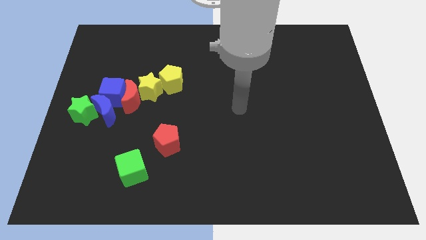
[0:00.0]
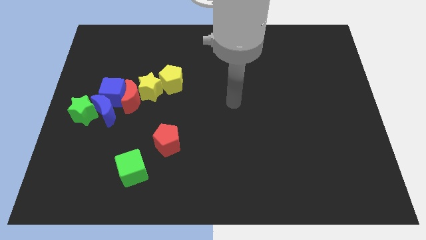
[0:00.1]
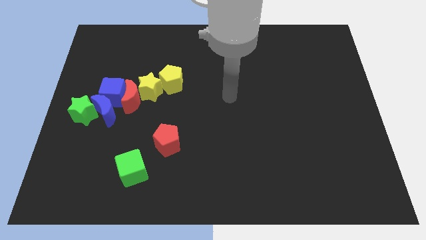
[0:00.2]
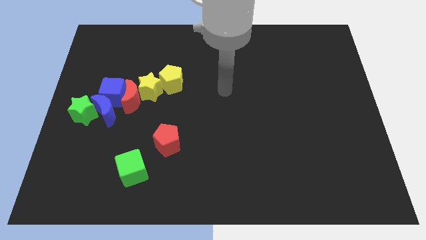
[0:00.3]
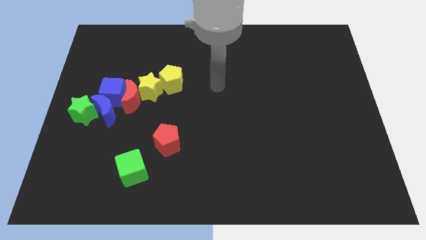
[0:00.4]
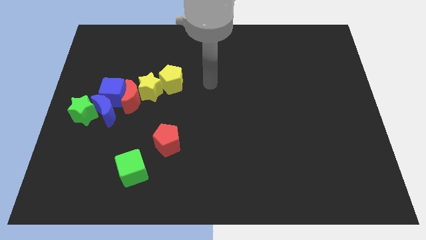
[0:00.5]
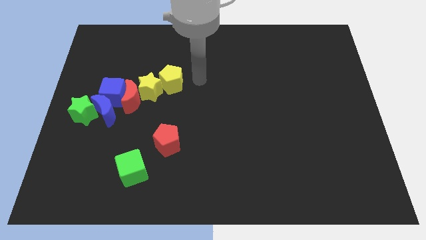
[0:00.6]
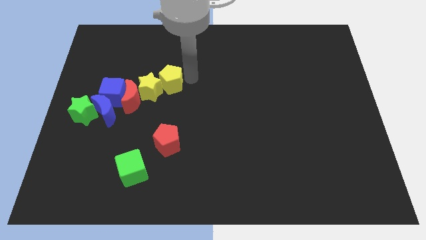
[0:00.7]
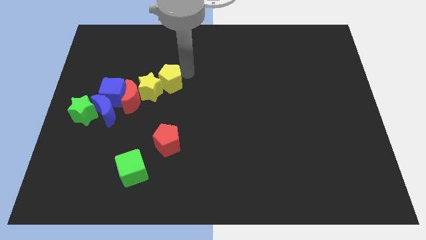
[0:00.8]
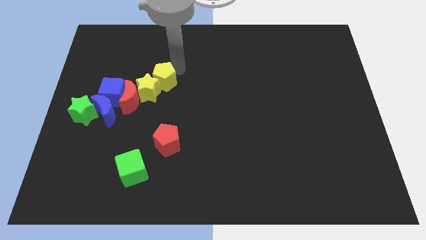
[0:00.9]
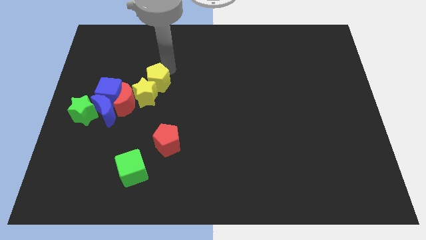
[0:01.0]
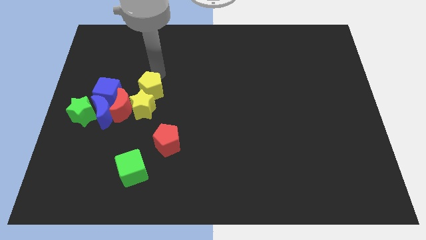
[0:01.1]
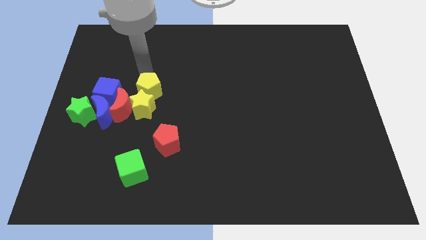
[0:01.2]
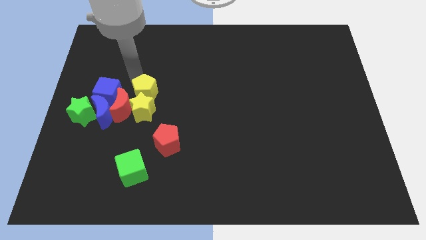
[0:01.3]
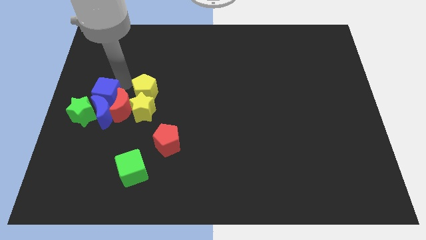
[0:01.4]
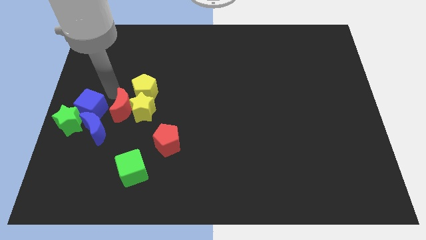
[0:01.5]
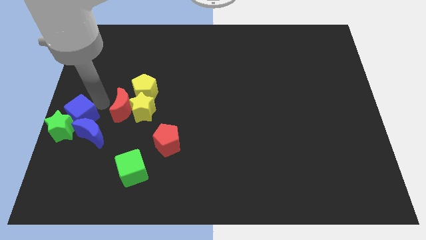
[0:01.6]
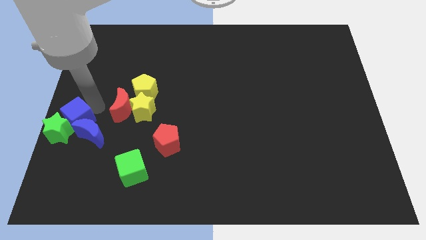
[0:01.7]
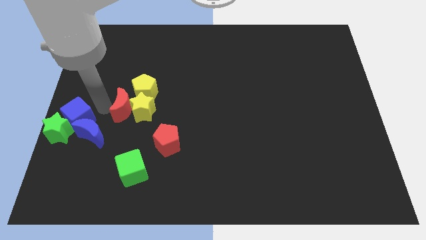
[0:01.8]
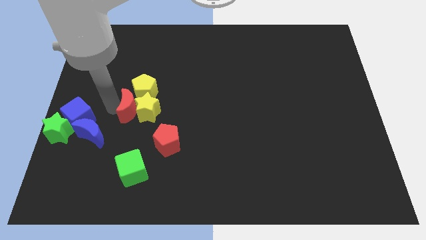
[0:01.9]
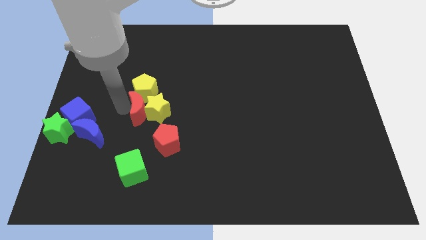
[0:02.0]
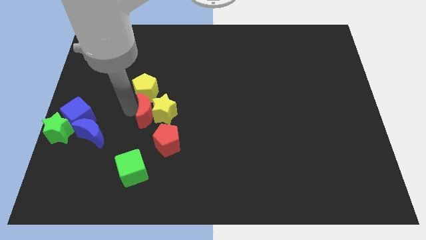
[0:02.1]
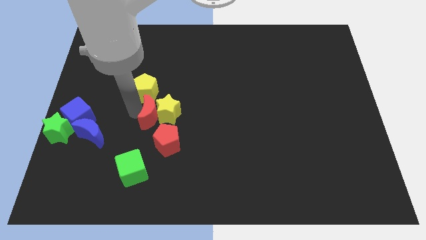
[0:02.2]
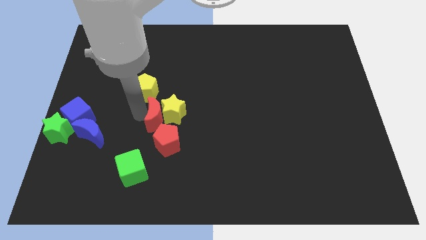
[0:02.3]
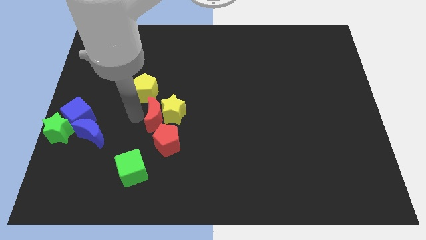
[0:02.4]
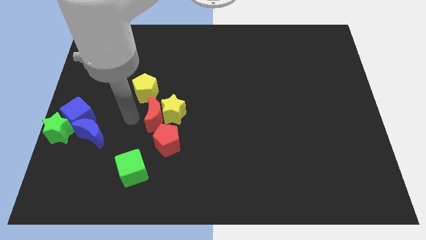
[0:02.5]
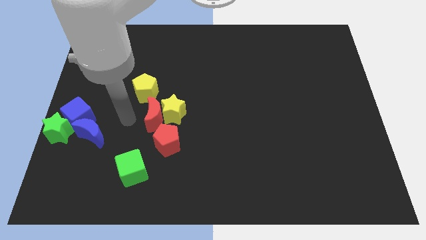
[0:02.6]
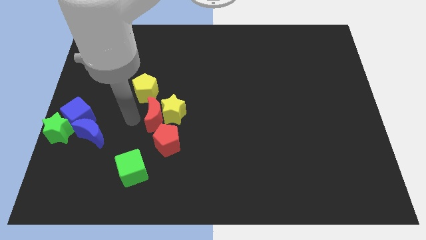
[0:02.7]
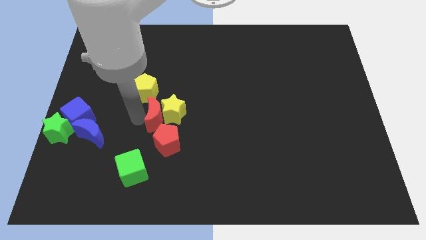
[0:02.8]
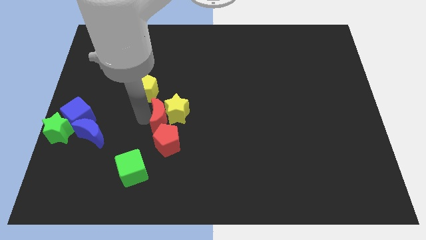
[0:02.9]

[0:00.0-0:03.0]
separate the red moon from the yellow star, blue cube, and blue moon

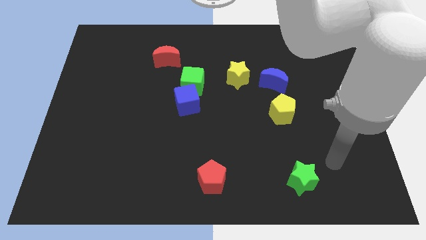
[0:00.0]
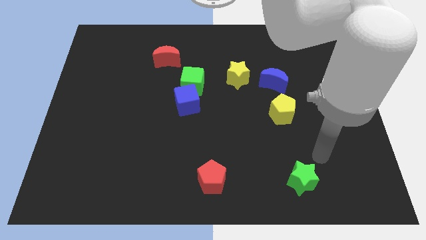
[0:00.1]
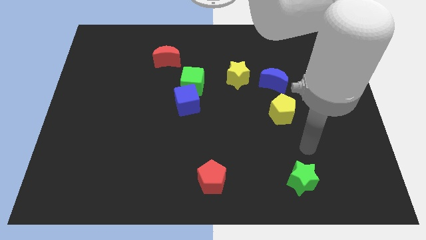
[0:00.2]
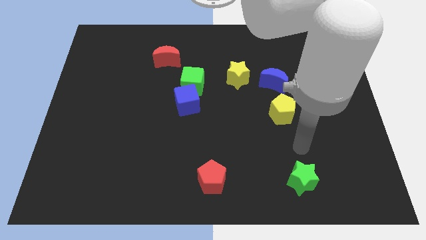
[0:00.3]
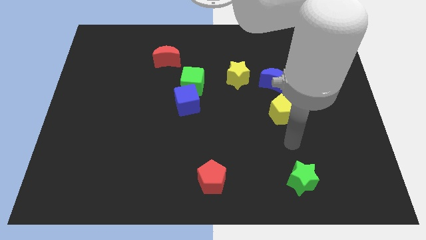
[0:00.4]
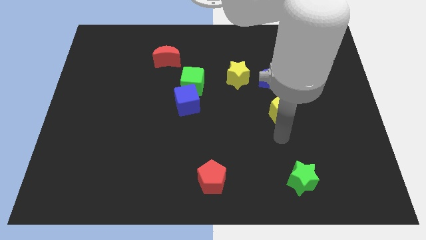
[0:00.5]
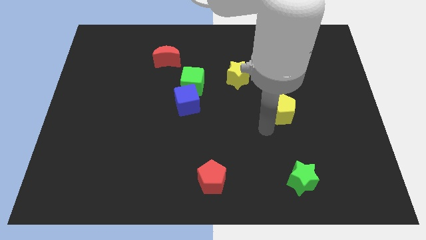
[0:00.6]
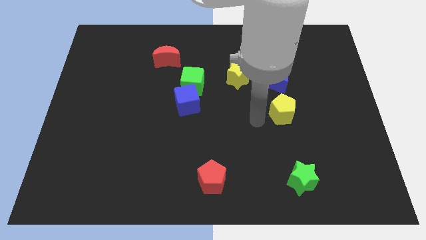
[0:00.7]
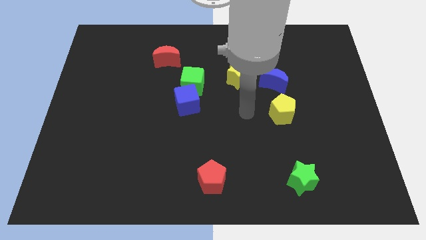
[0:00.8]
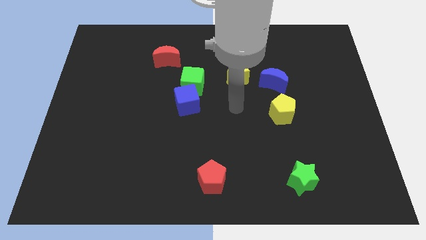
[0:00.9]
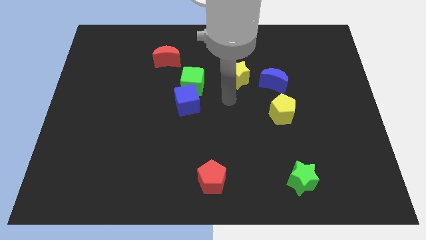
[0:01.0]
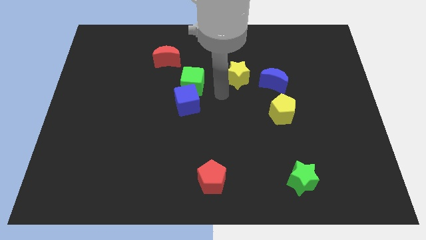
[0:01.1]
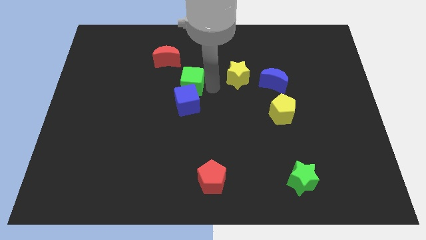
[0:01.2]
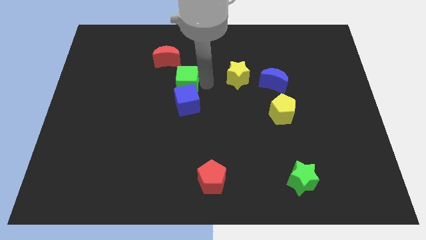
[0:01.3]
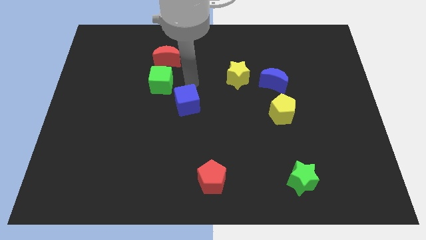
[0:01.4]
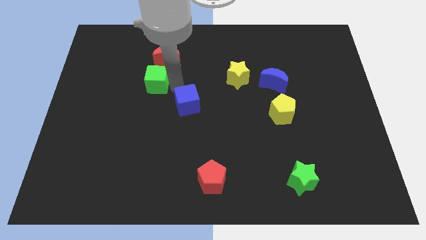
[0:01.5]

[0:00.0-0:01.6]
move the blue cube away from the green cube

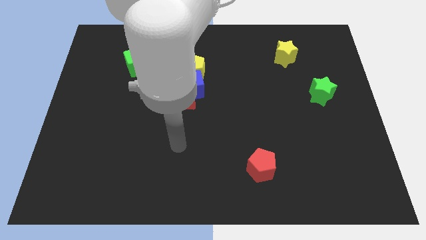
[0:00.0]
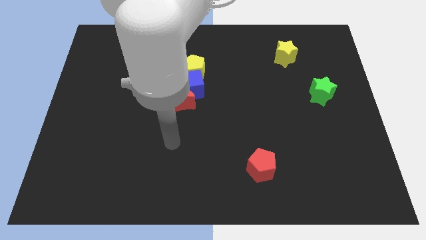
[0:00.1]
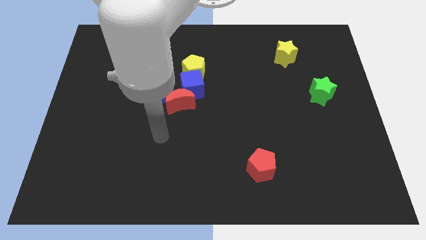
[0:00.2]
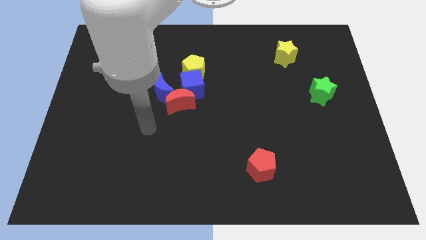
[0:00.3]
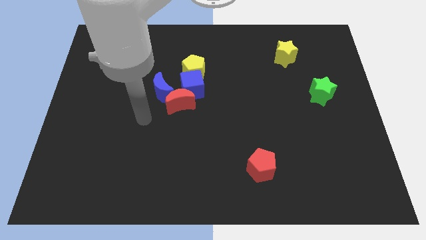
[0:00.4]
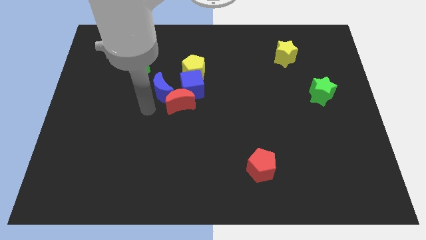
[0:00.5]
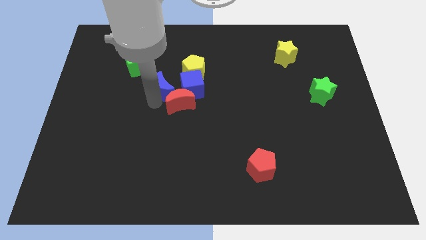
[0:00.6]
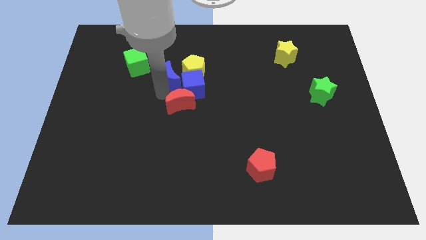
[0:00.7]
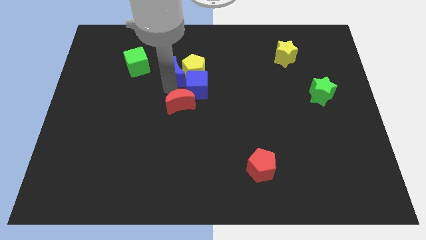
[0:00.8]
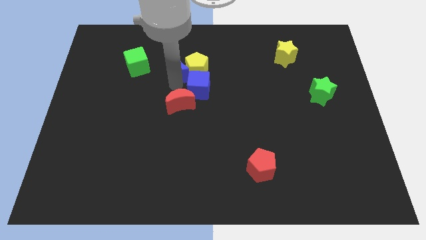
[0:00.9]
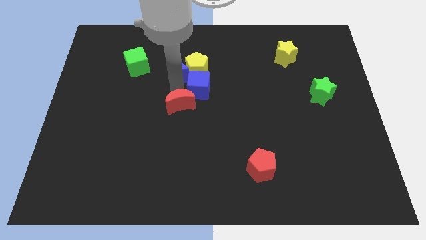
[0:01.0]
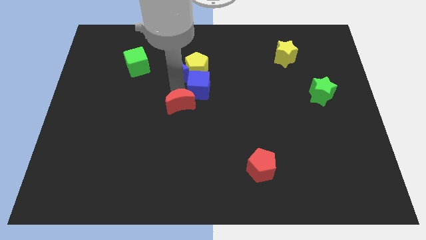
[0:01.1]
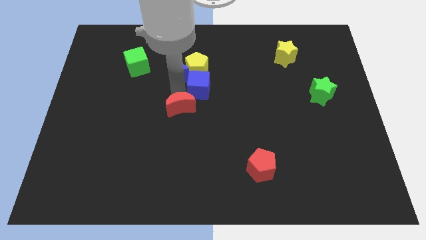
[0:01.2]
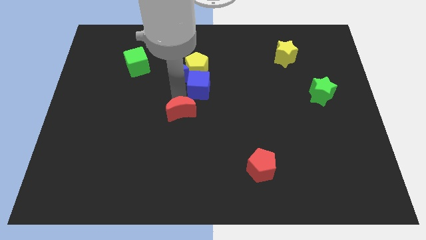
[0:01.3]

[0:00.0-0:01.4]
pull the red moon apart from the blue cube and blue moon

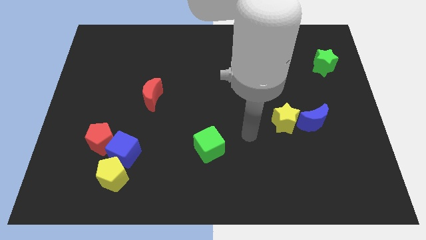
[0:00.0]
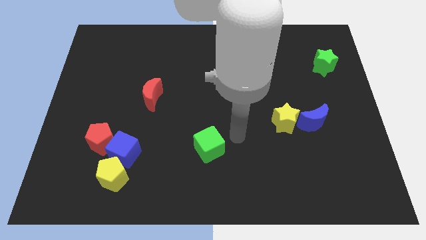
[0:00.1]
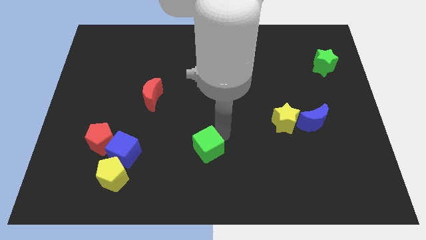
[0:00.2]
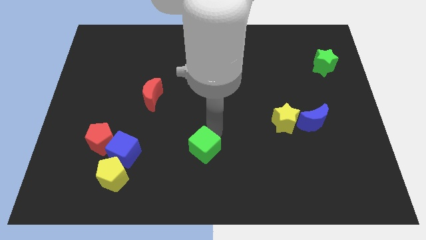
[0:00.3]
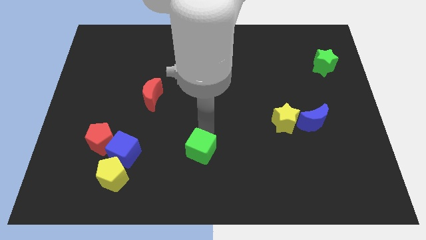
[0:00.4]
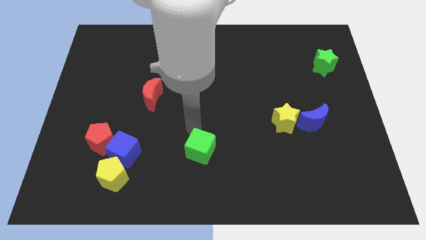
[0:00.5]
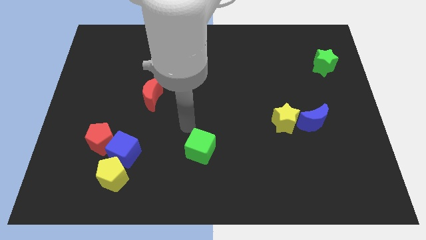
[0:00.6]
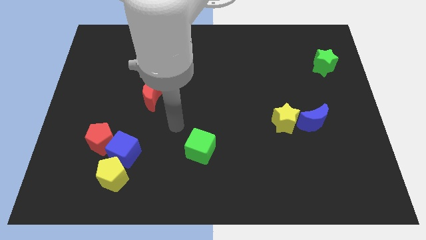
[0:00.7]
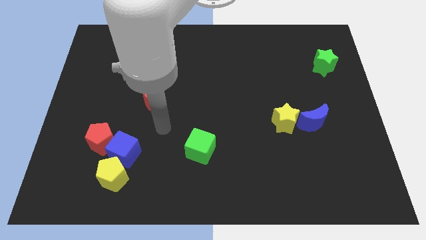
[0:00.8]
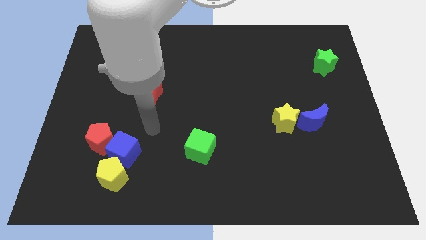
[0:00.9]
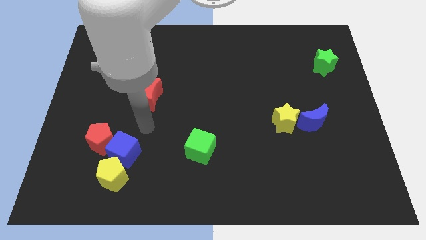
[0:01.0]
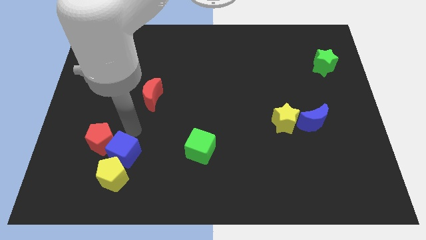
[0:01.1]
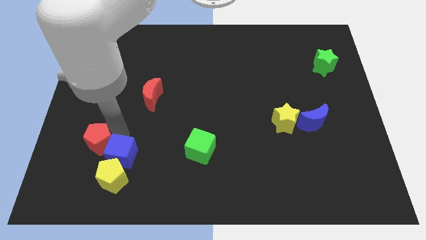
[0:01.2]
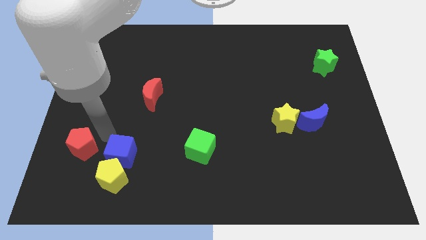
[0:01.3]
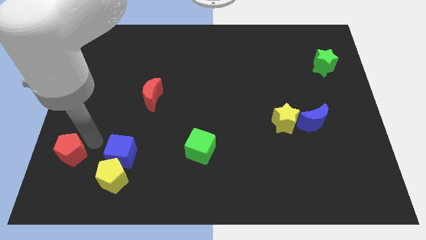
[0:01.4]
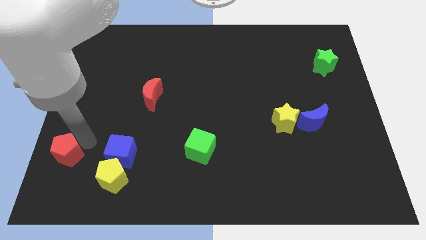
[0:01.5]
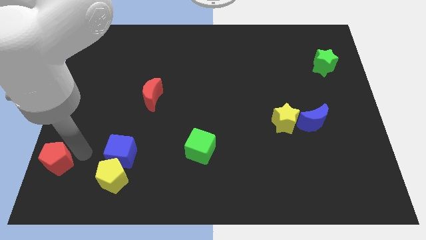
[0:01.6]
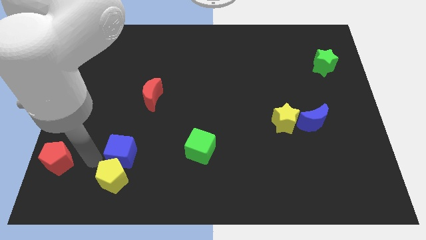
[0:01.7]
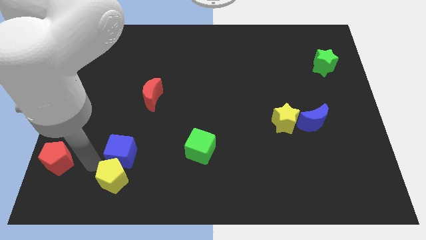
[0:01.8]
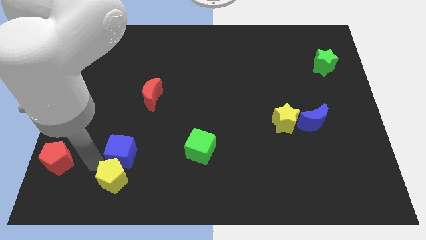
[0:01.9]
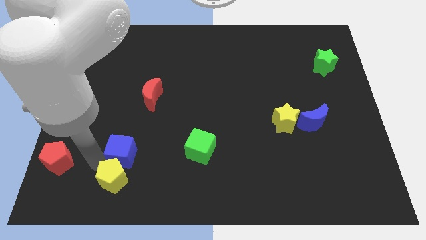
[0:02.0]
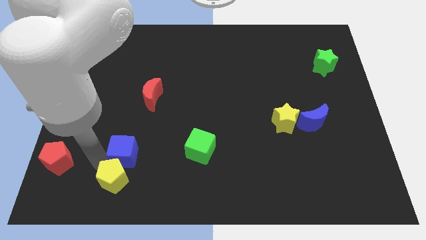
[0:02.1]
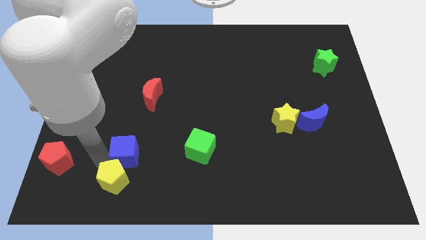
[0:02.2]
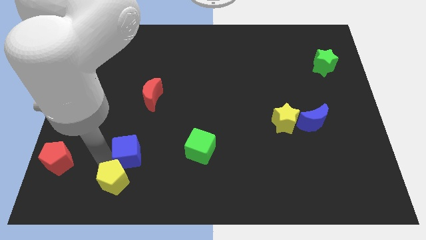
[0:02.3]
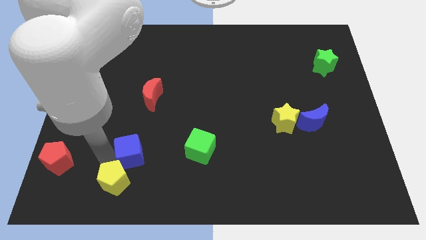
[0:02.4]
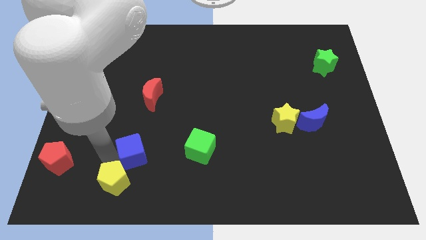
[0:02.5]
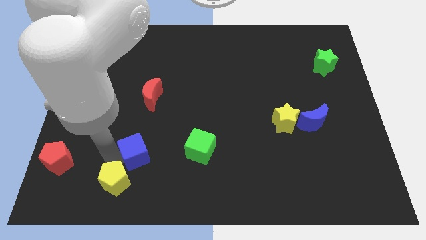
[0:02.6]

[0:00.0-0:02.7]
separate the blue cube from the yellow pentagon and red pentagon

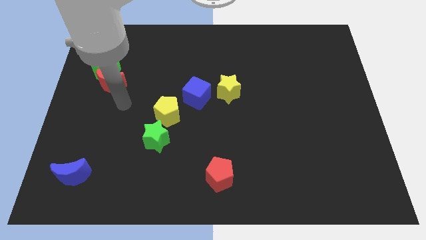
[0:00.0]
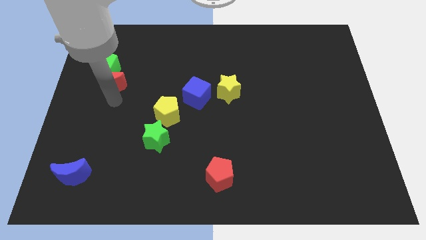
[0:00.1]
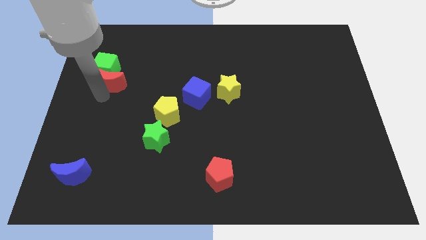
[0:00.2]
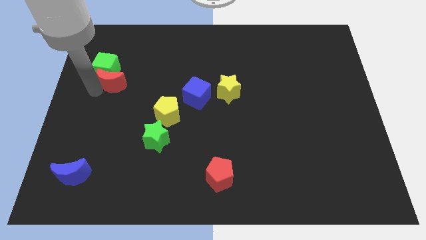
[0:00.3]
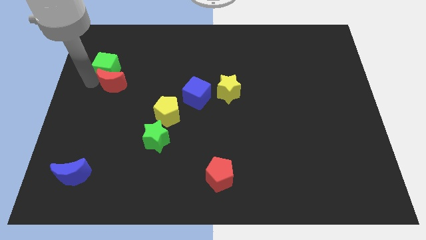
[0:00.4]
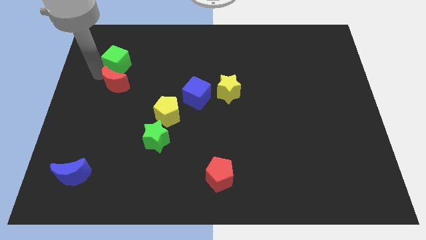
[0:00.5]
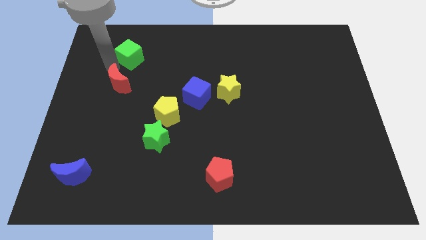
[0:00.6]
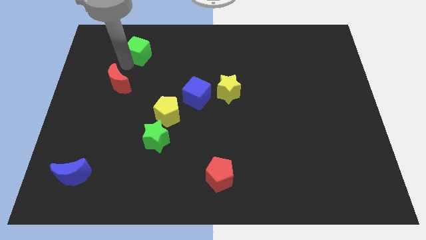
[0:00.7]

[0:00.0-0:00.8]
separate the red moon from the green cube
